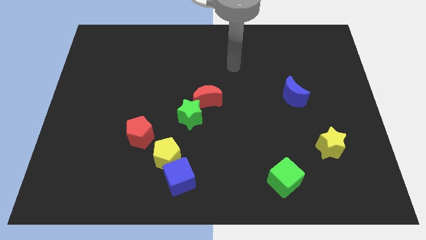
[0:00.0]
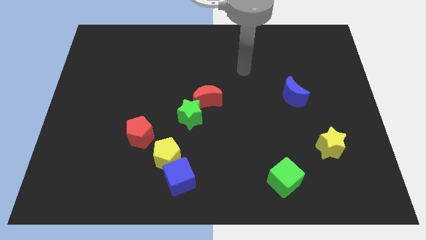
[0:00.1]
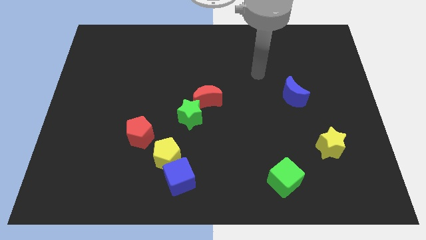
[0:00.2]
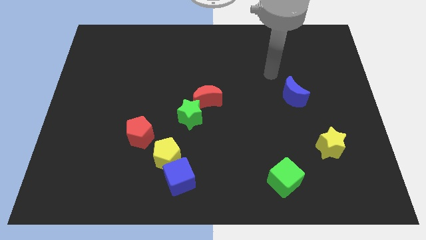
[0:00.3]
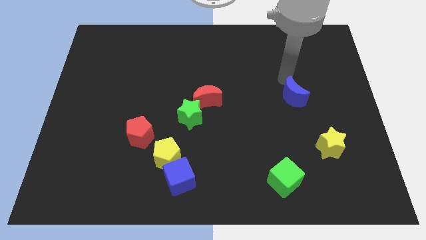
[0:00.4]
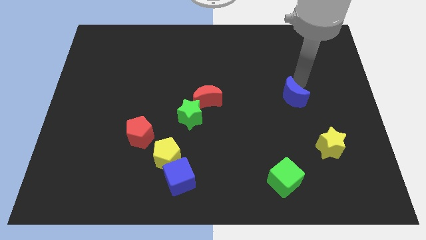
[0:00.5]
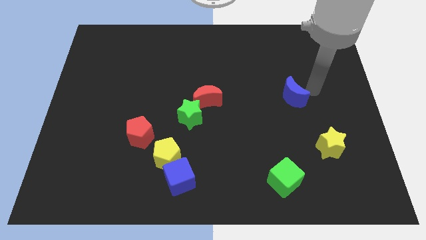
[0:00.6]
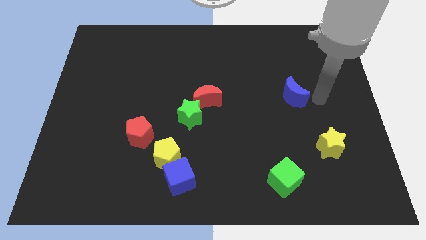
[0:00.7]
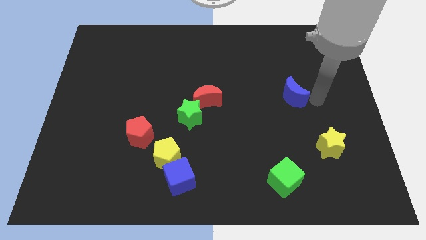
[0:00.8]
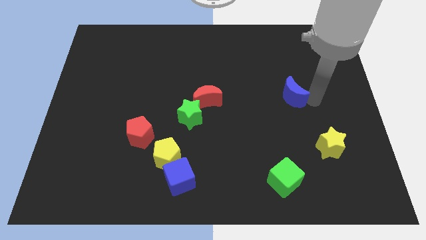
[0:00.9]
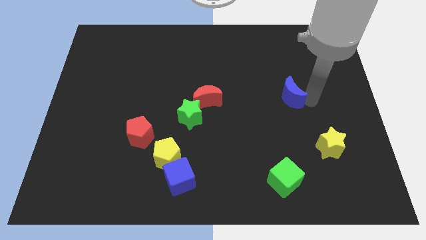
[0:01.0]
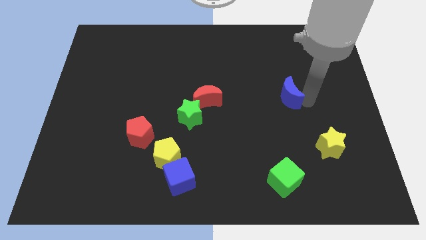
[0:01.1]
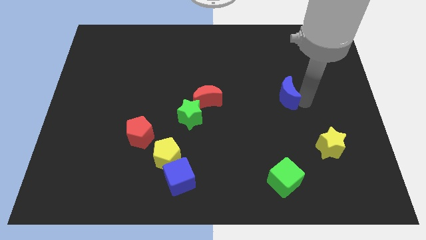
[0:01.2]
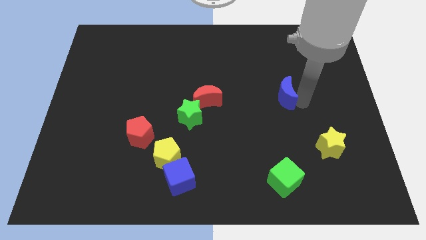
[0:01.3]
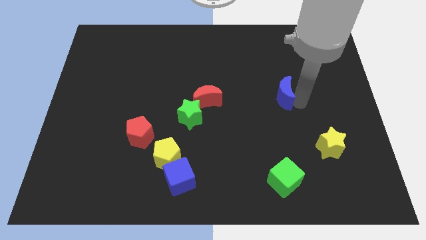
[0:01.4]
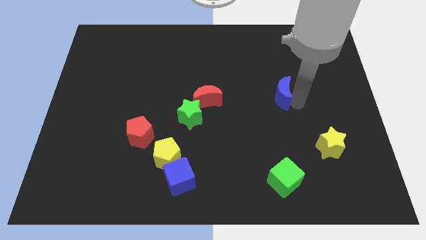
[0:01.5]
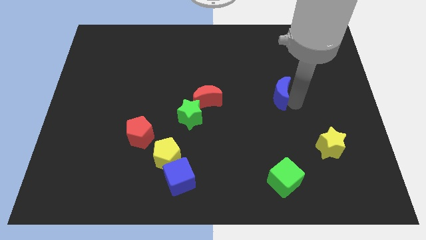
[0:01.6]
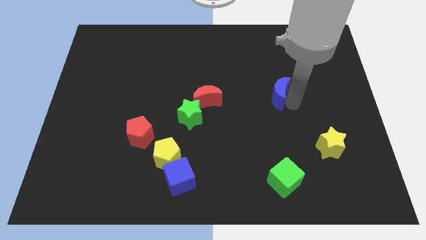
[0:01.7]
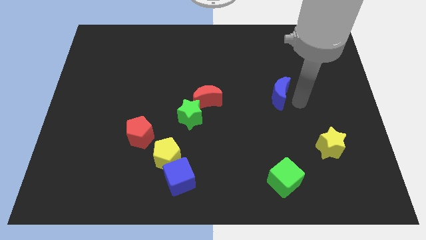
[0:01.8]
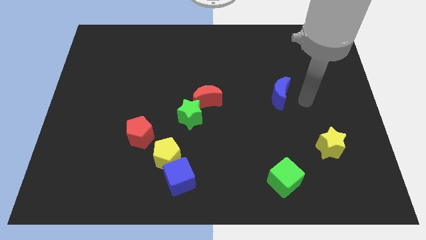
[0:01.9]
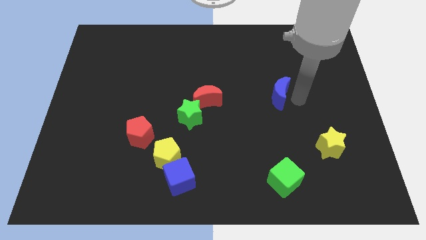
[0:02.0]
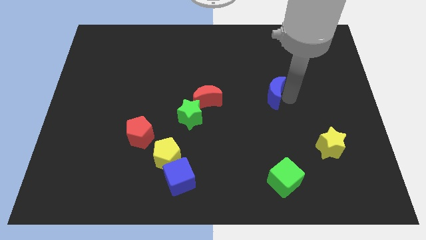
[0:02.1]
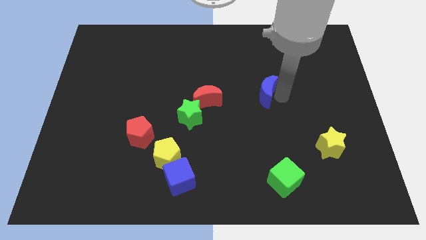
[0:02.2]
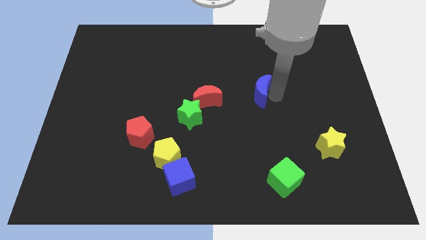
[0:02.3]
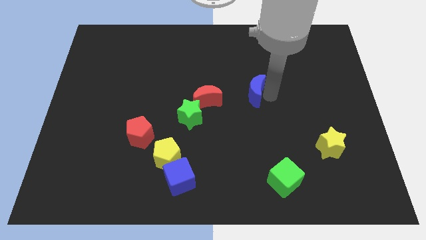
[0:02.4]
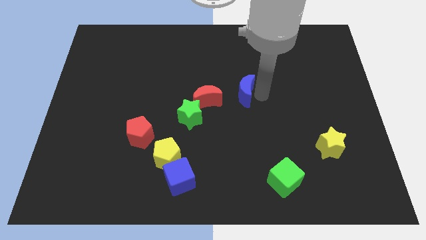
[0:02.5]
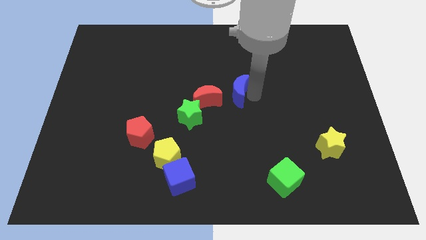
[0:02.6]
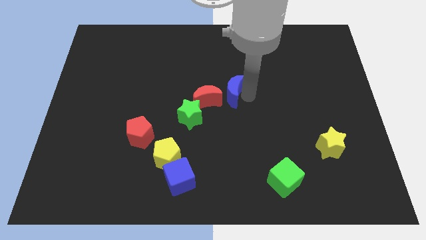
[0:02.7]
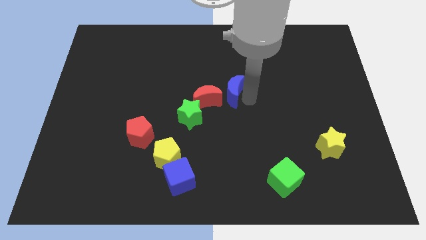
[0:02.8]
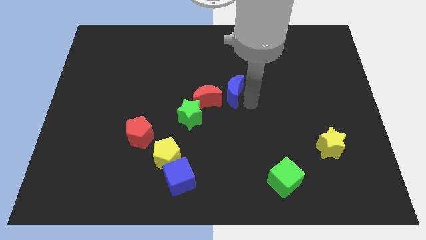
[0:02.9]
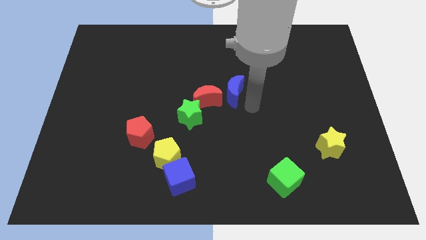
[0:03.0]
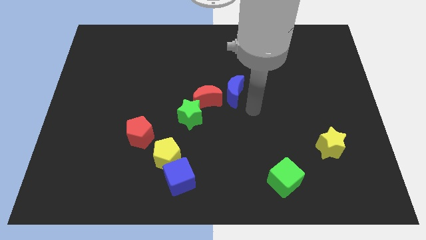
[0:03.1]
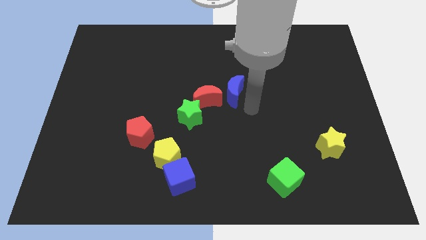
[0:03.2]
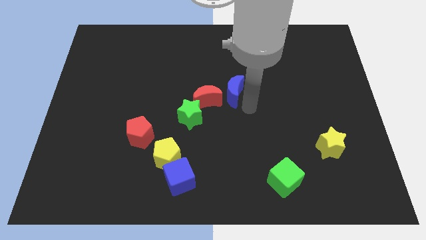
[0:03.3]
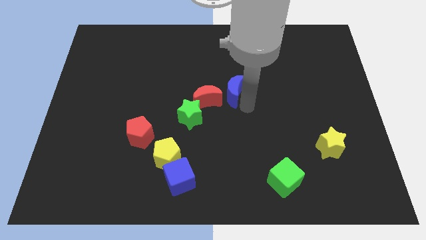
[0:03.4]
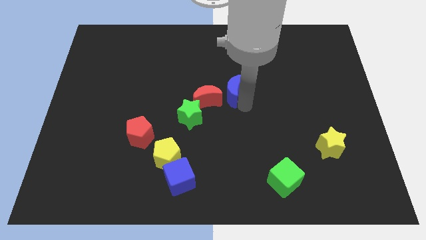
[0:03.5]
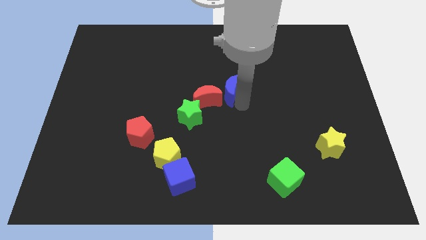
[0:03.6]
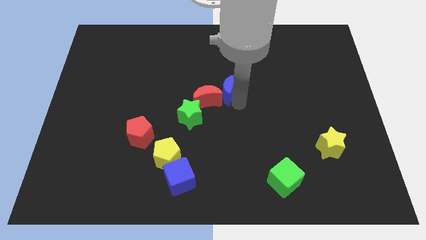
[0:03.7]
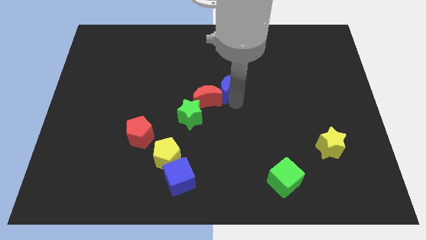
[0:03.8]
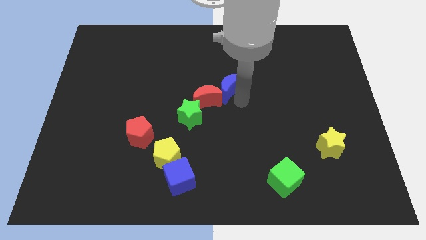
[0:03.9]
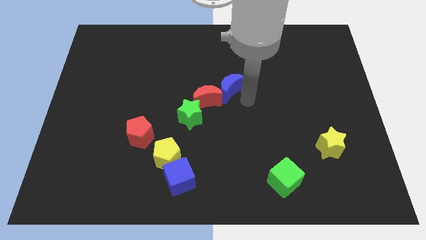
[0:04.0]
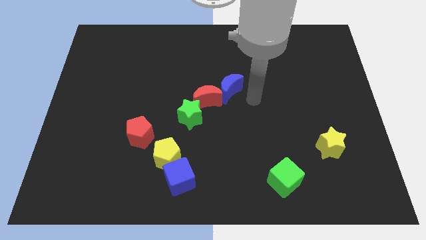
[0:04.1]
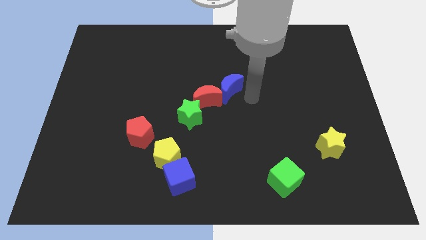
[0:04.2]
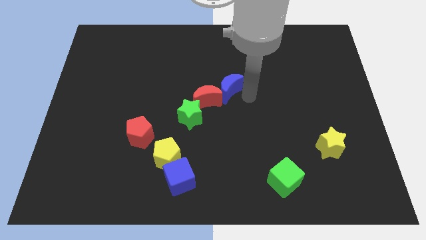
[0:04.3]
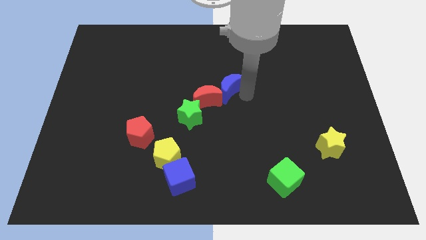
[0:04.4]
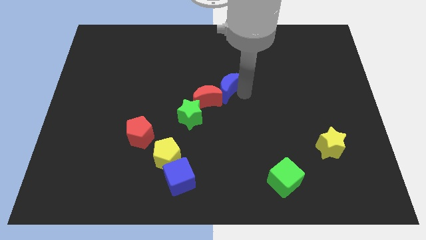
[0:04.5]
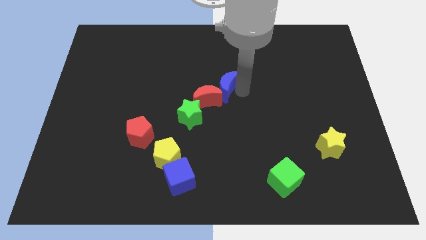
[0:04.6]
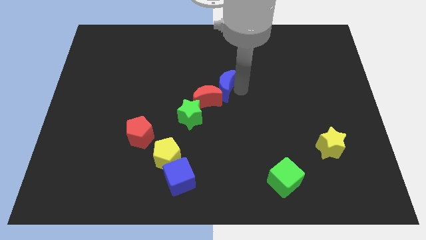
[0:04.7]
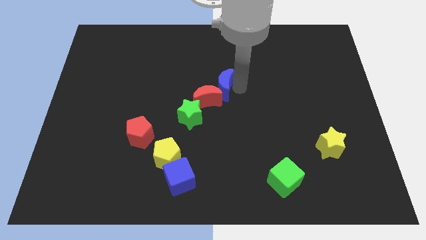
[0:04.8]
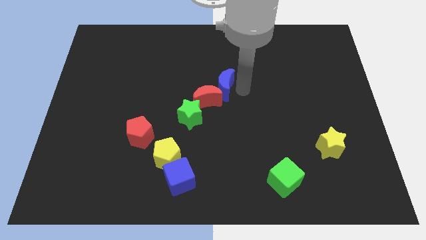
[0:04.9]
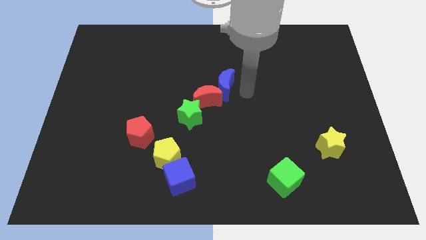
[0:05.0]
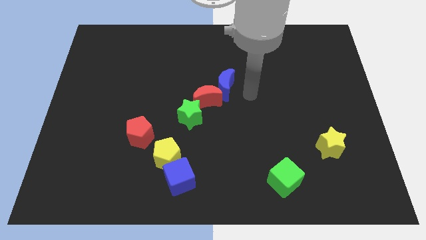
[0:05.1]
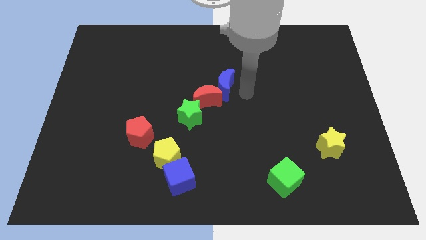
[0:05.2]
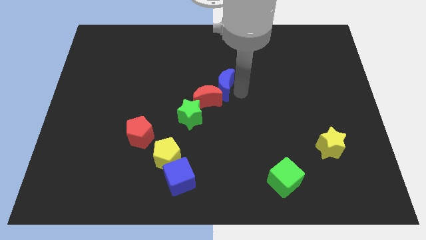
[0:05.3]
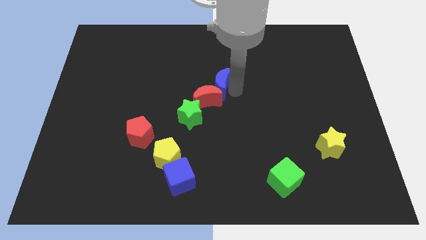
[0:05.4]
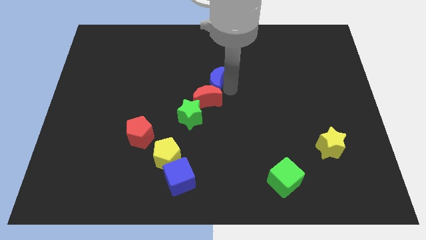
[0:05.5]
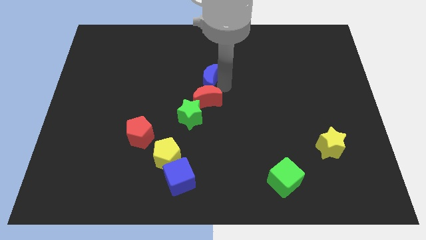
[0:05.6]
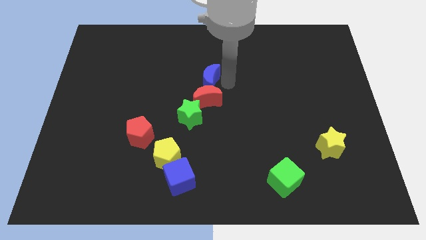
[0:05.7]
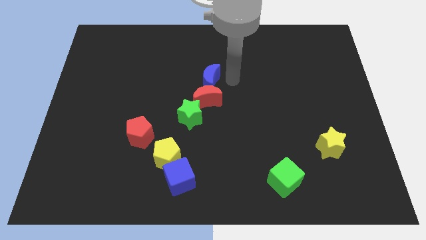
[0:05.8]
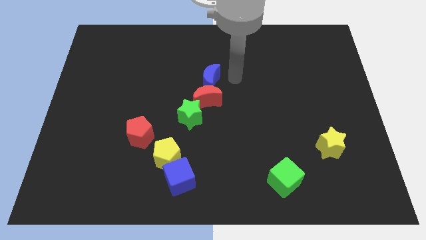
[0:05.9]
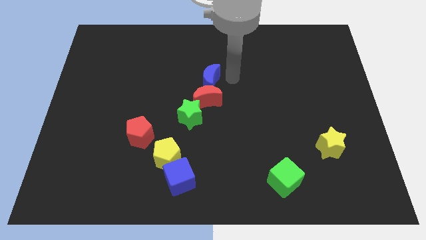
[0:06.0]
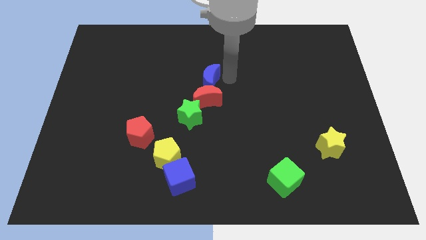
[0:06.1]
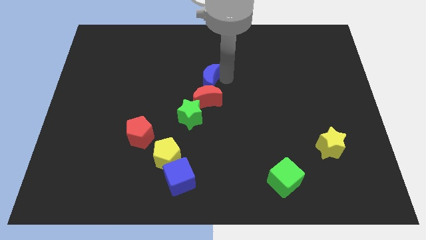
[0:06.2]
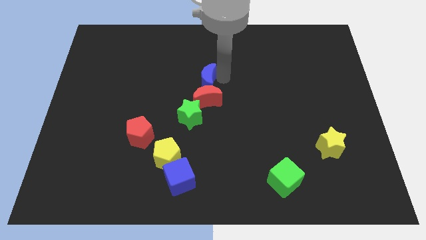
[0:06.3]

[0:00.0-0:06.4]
slide the blue moon to the left

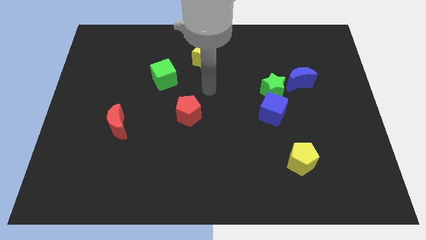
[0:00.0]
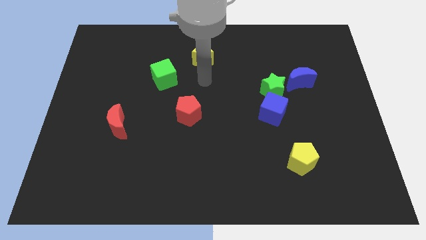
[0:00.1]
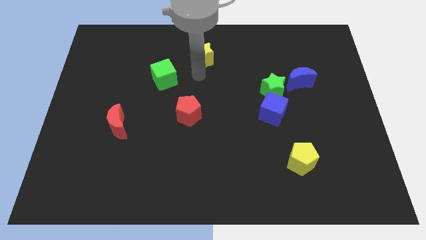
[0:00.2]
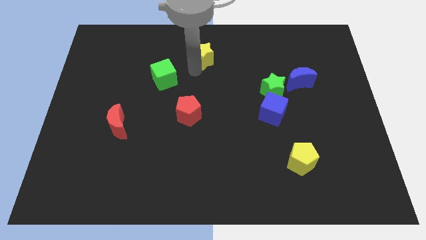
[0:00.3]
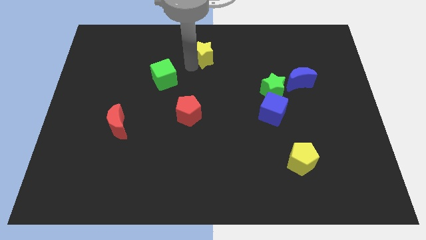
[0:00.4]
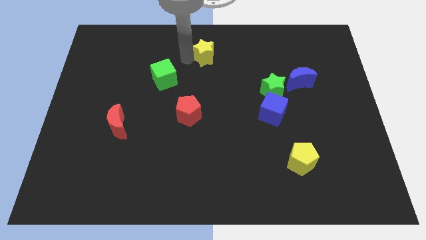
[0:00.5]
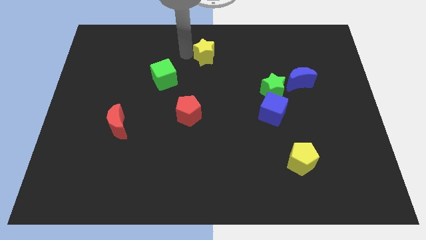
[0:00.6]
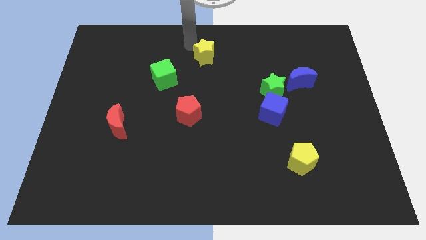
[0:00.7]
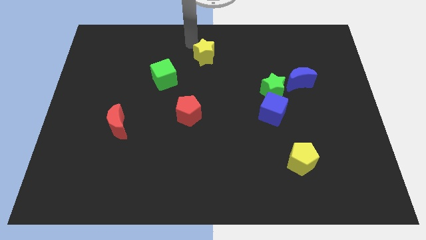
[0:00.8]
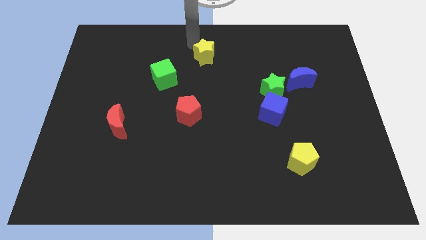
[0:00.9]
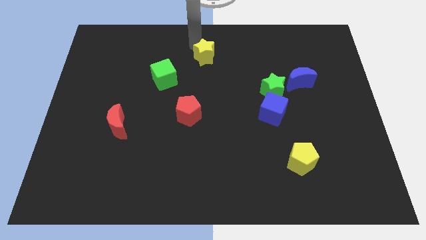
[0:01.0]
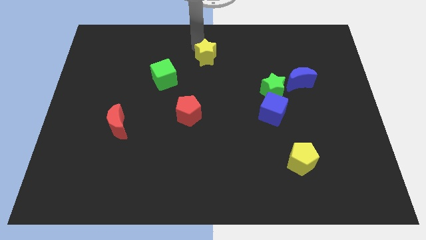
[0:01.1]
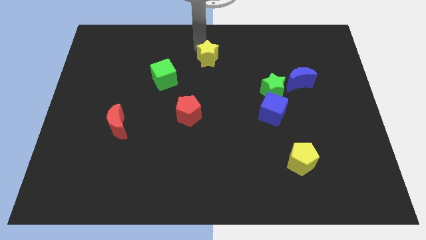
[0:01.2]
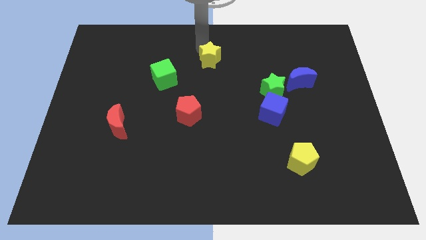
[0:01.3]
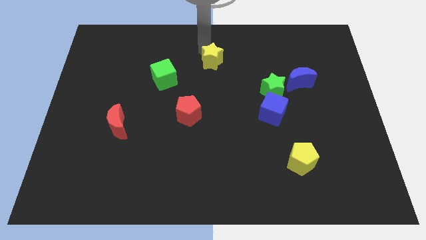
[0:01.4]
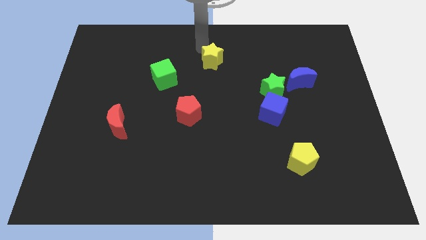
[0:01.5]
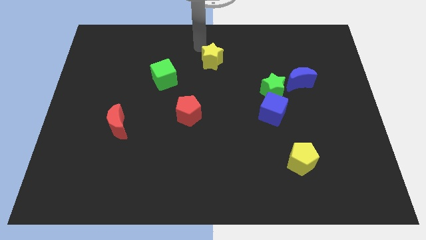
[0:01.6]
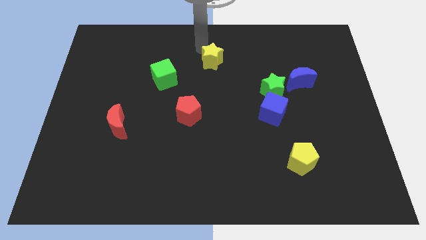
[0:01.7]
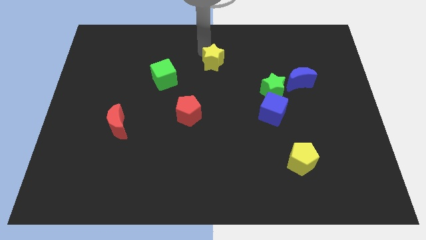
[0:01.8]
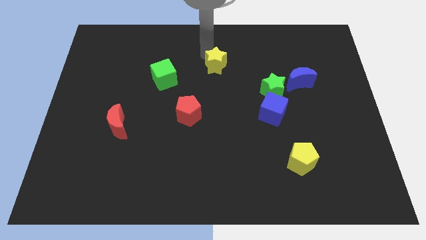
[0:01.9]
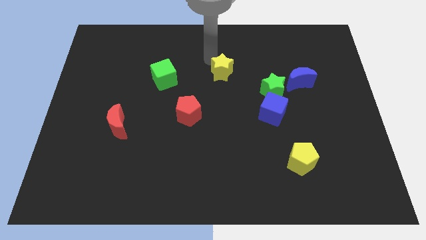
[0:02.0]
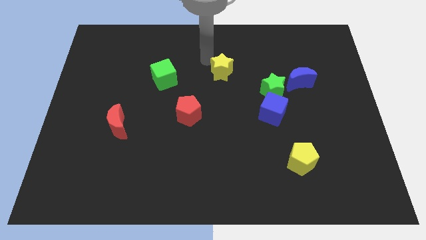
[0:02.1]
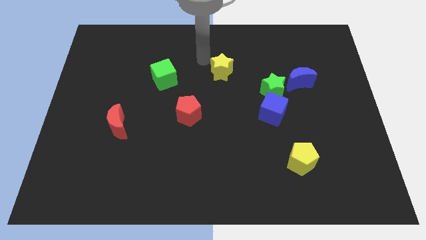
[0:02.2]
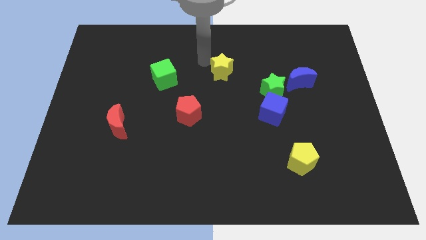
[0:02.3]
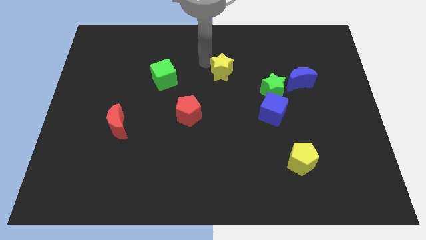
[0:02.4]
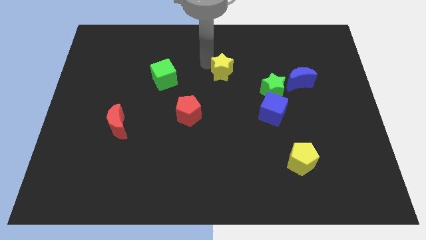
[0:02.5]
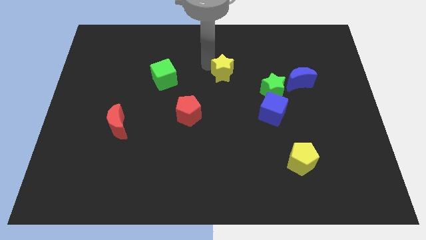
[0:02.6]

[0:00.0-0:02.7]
slightly push the yellow star downwards and right
